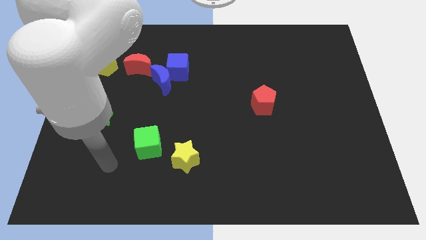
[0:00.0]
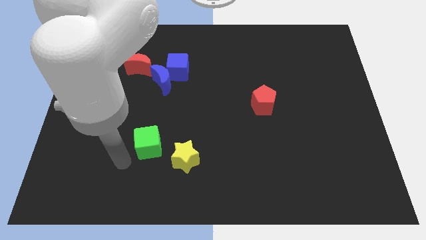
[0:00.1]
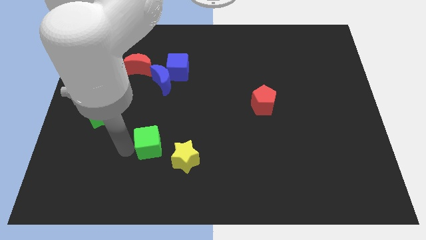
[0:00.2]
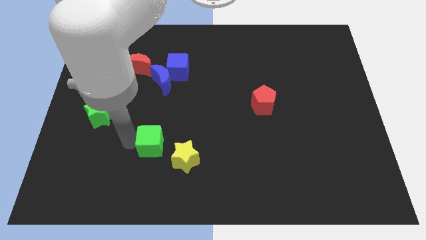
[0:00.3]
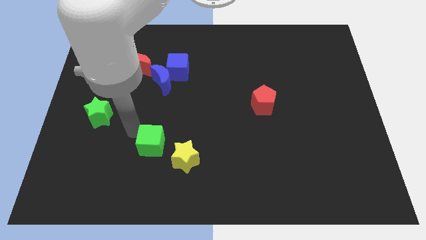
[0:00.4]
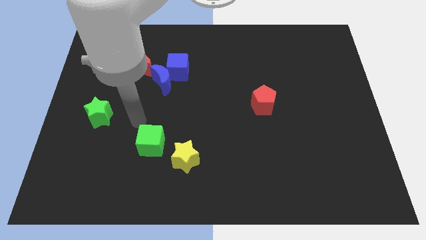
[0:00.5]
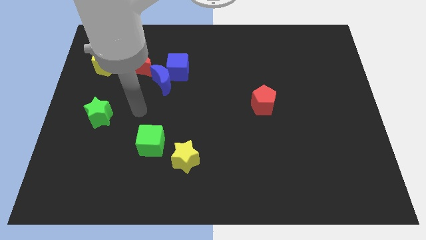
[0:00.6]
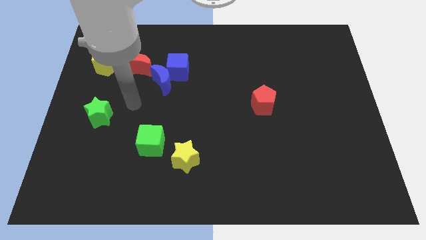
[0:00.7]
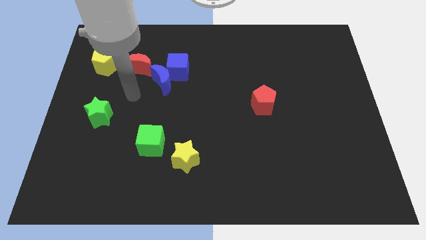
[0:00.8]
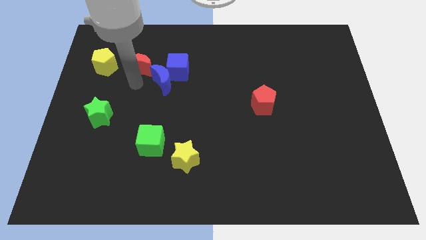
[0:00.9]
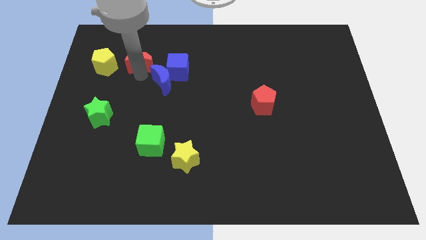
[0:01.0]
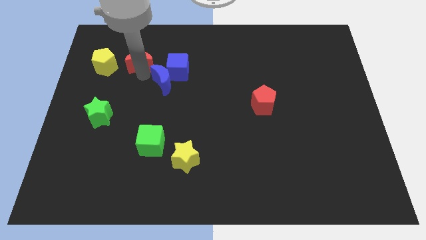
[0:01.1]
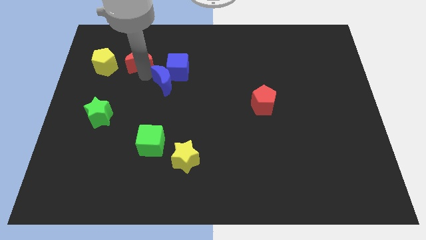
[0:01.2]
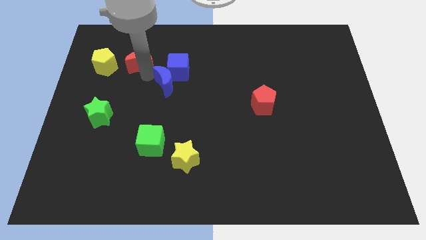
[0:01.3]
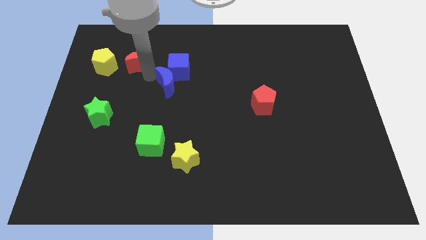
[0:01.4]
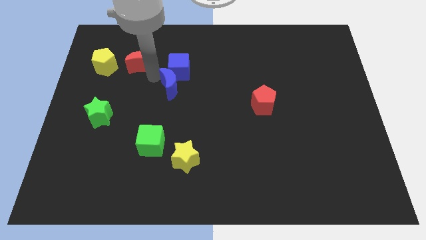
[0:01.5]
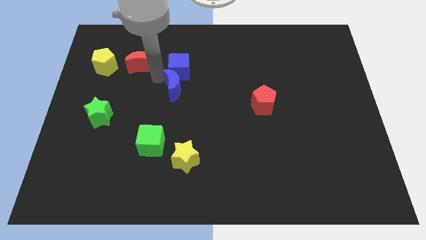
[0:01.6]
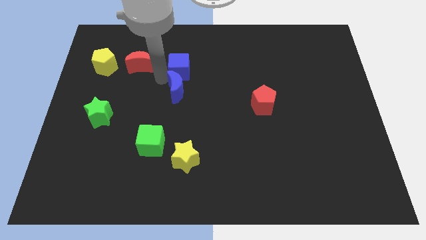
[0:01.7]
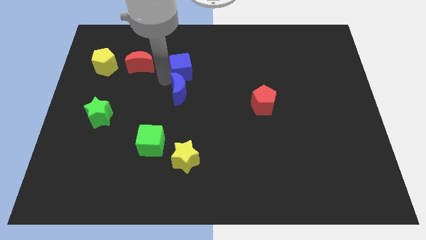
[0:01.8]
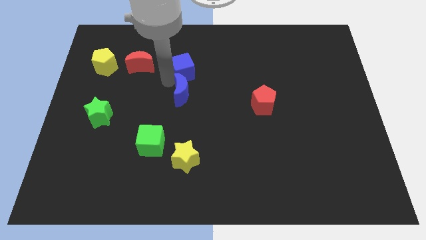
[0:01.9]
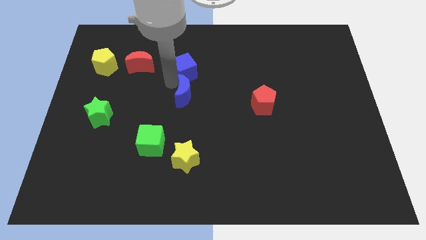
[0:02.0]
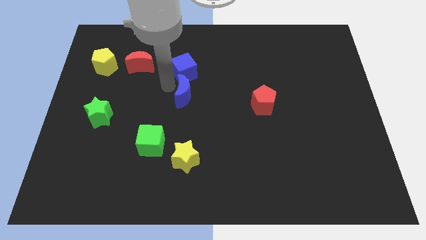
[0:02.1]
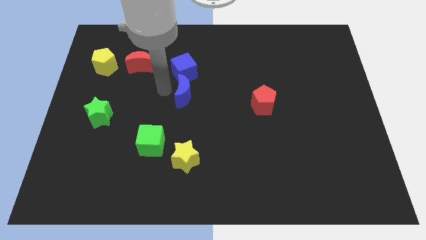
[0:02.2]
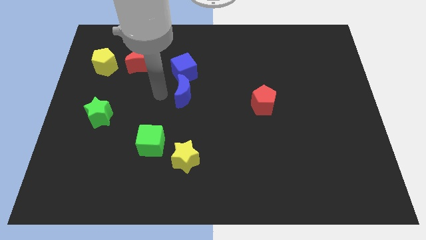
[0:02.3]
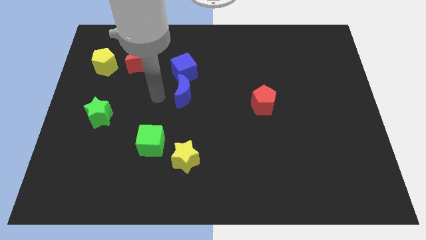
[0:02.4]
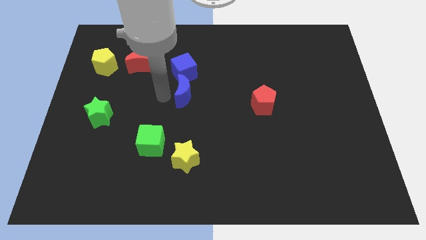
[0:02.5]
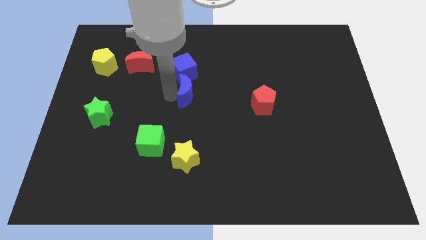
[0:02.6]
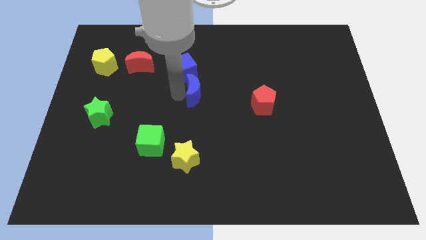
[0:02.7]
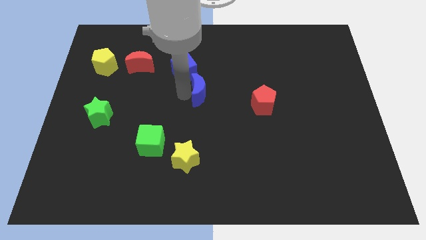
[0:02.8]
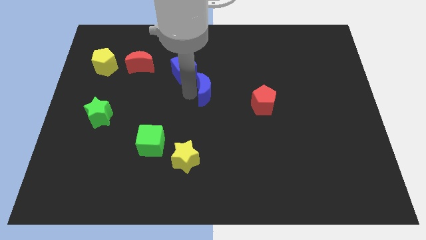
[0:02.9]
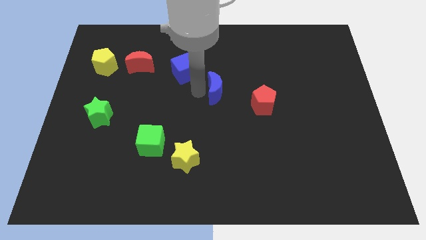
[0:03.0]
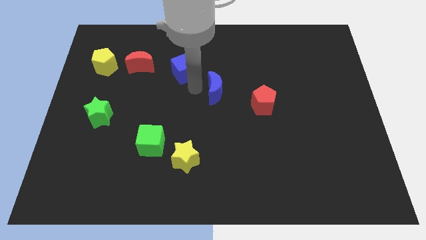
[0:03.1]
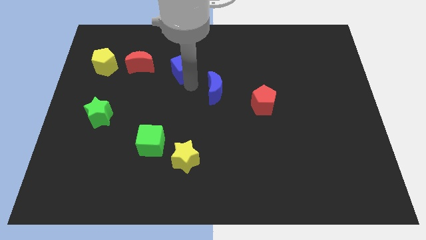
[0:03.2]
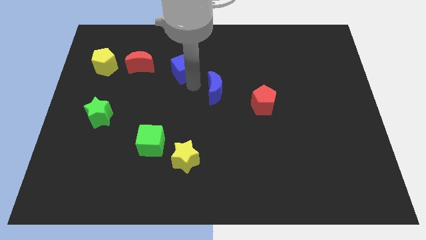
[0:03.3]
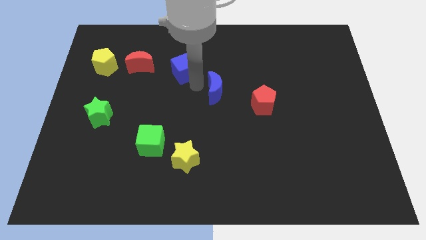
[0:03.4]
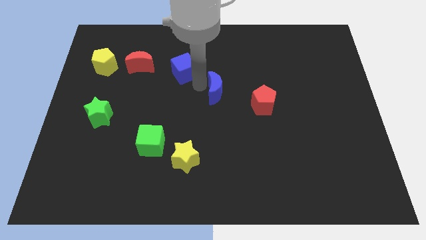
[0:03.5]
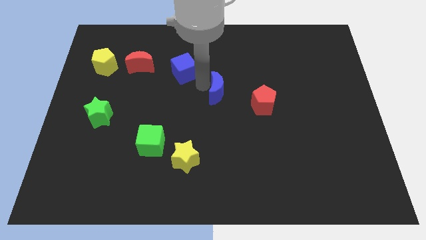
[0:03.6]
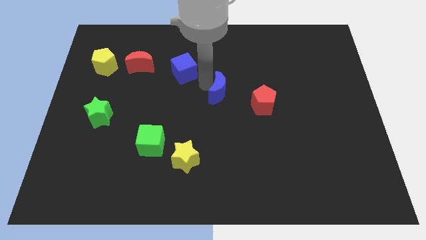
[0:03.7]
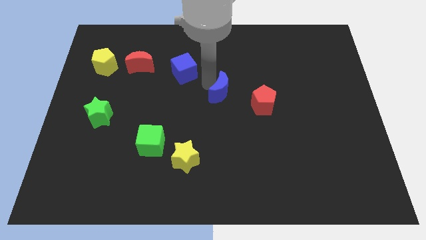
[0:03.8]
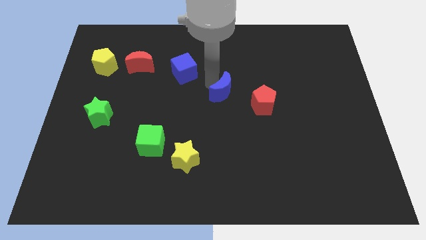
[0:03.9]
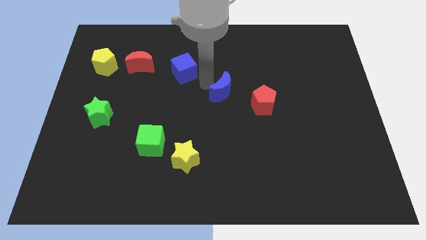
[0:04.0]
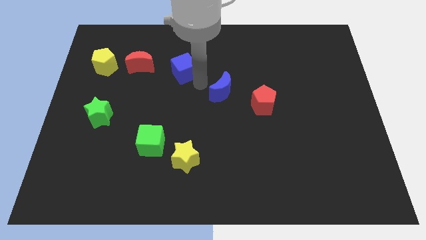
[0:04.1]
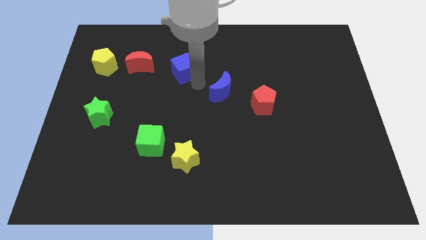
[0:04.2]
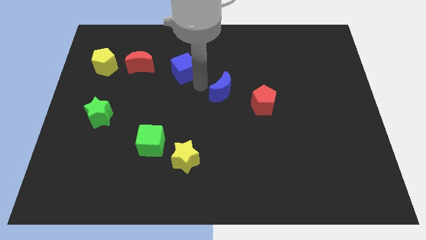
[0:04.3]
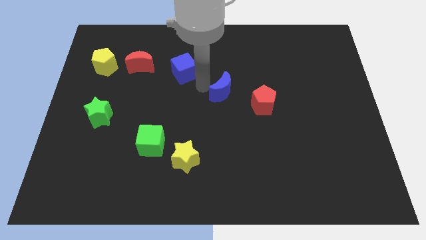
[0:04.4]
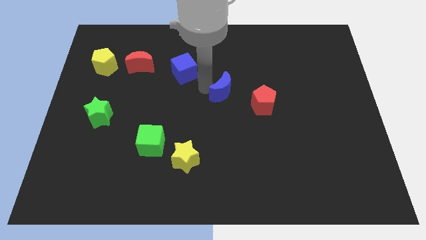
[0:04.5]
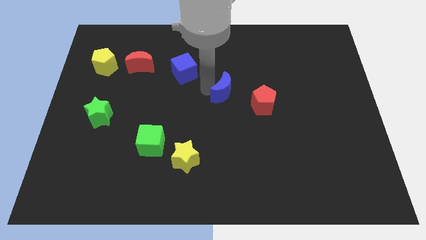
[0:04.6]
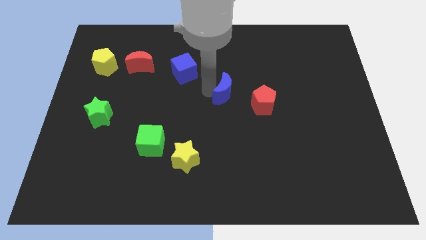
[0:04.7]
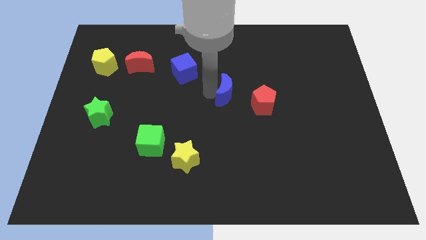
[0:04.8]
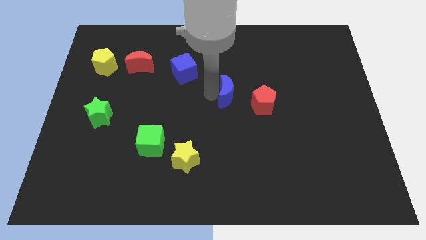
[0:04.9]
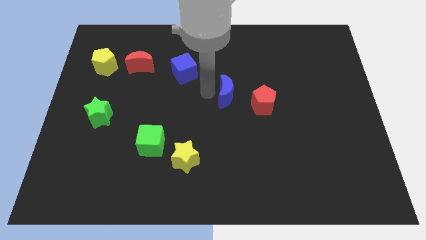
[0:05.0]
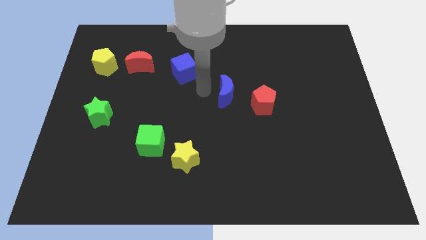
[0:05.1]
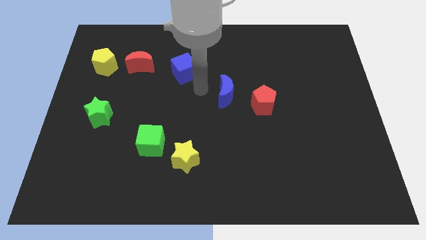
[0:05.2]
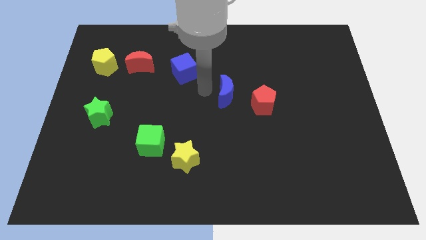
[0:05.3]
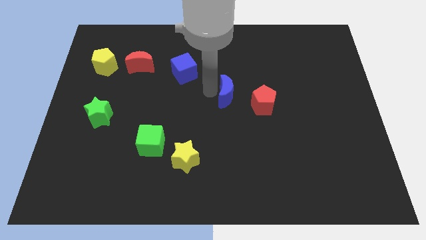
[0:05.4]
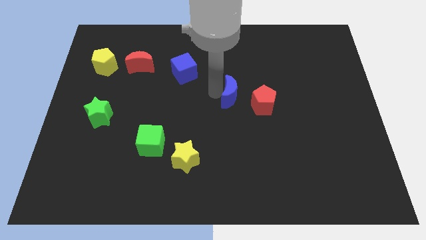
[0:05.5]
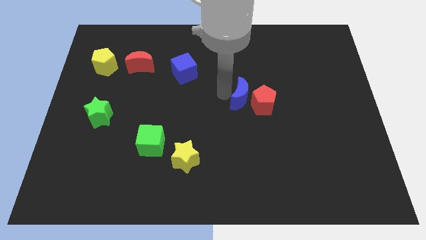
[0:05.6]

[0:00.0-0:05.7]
put the blue moon towards the red pentagon

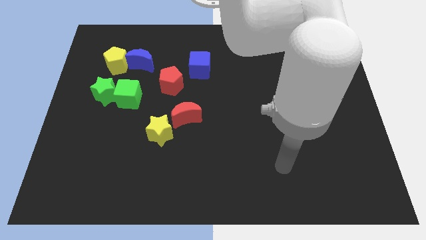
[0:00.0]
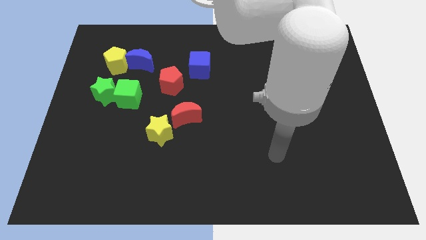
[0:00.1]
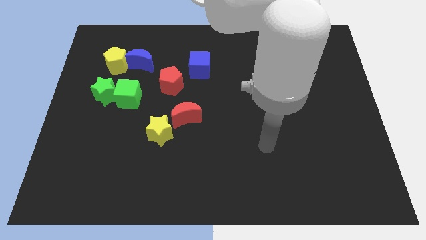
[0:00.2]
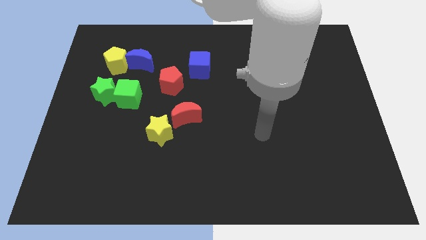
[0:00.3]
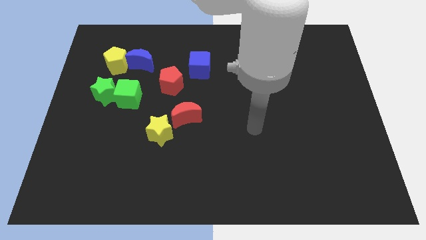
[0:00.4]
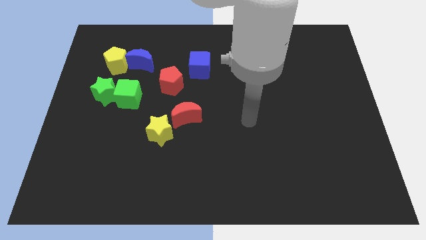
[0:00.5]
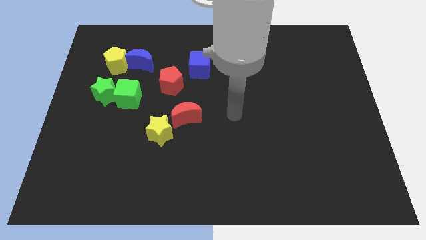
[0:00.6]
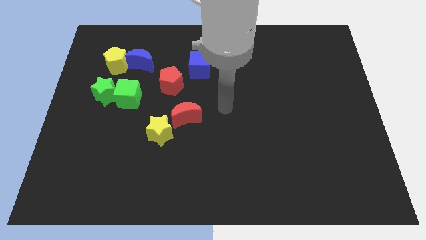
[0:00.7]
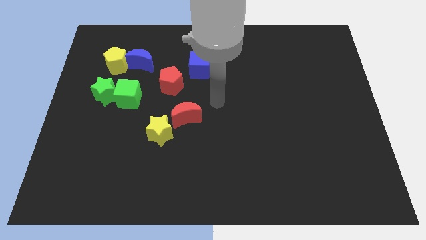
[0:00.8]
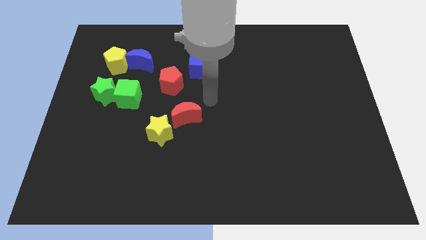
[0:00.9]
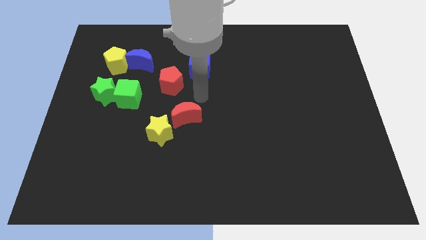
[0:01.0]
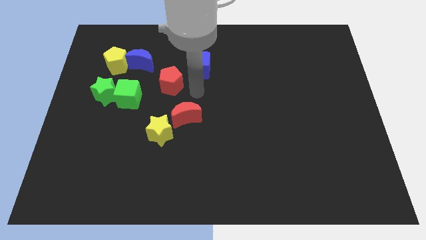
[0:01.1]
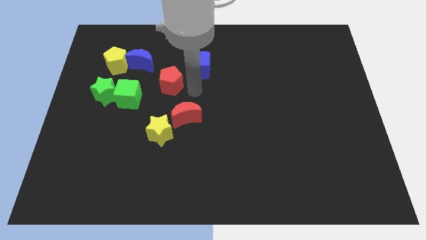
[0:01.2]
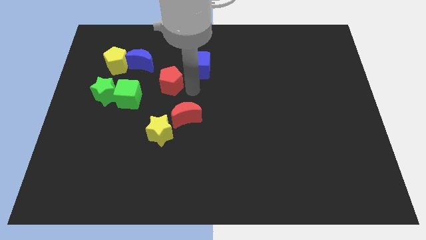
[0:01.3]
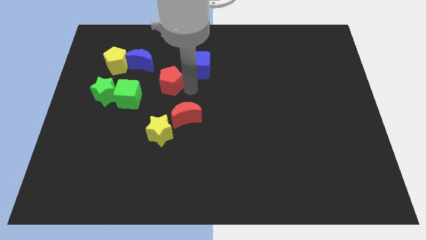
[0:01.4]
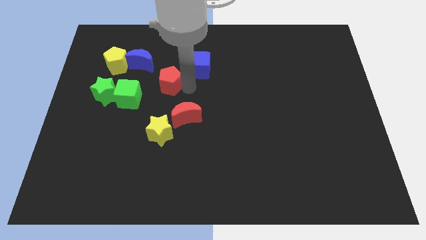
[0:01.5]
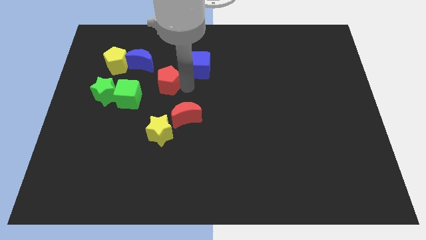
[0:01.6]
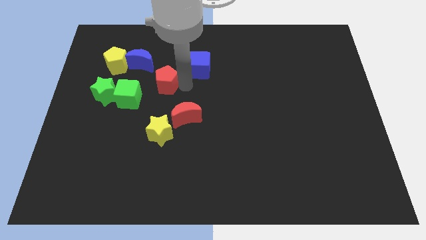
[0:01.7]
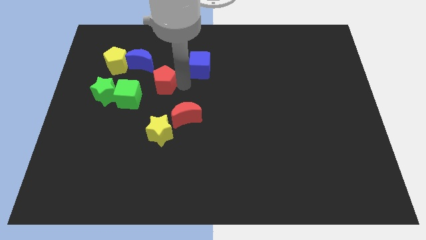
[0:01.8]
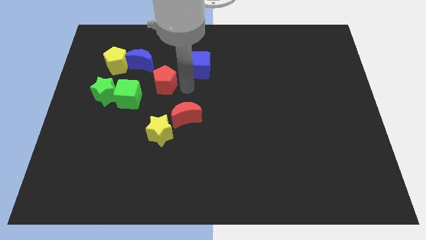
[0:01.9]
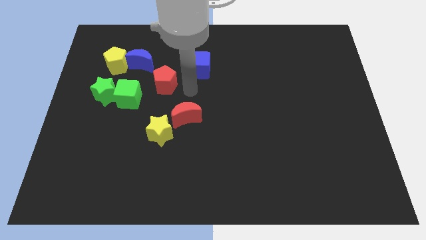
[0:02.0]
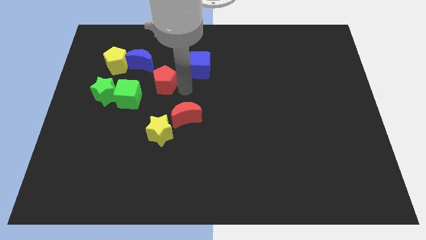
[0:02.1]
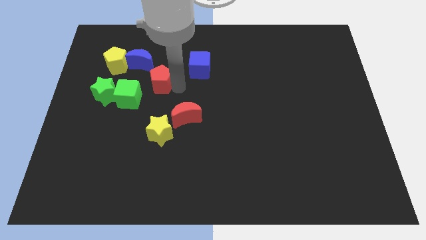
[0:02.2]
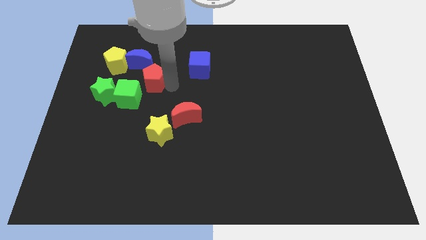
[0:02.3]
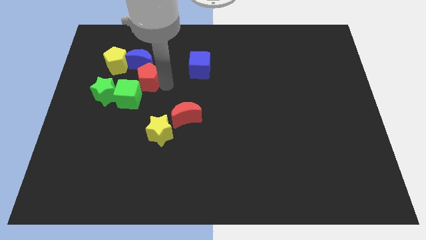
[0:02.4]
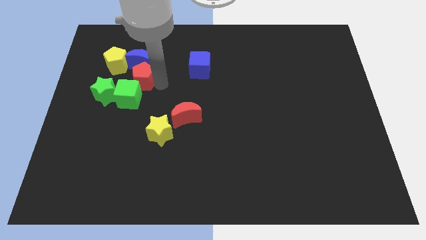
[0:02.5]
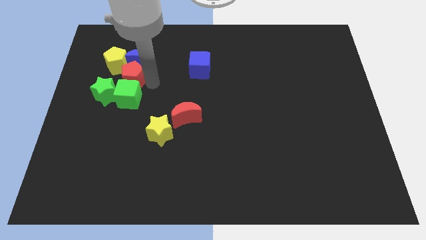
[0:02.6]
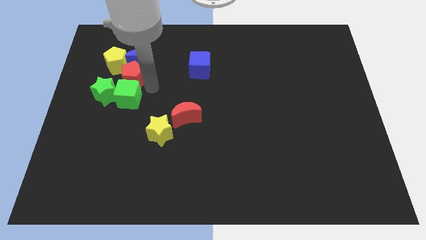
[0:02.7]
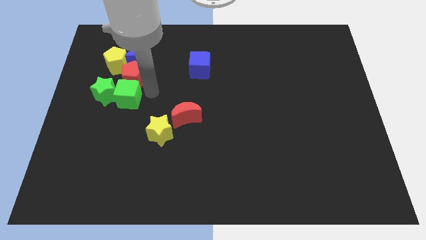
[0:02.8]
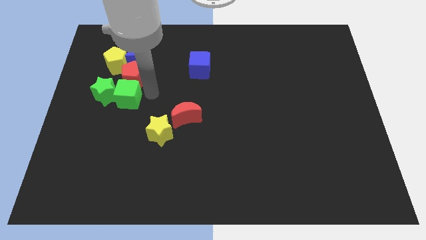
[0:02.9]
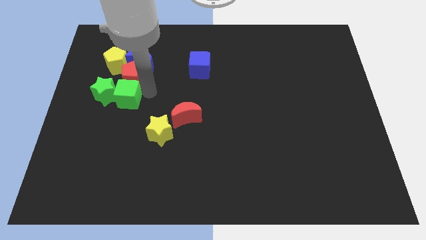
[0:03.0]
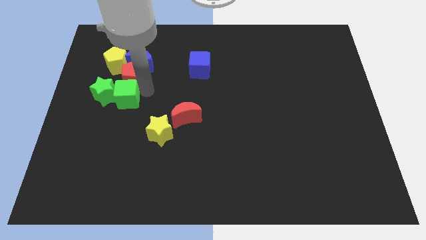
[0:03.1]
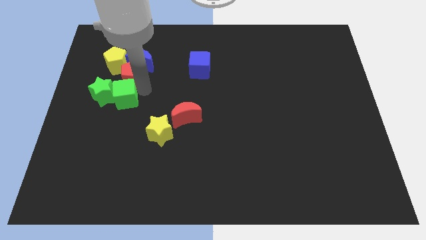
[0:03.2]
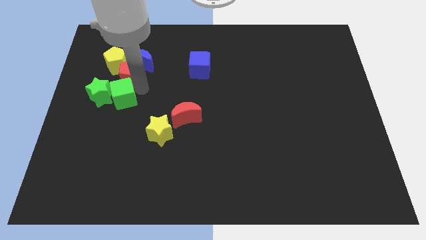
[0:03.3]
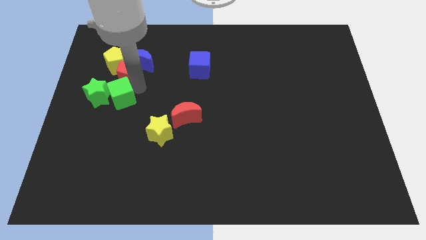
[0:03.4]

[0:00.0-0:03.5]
move the red pentagon next to the yellow pentagon
